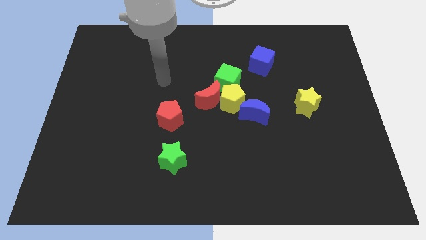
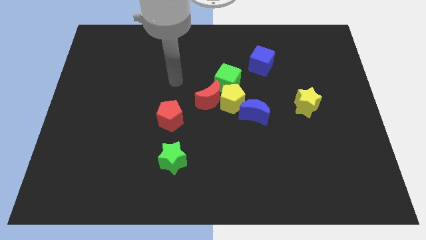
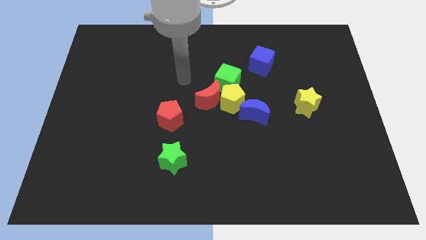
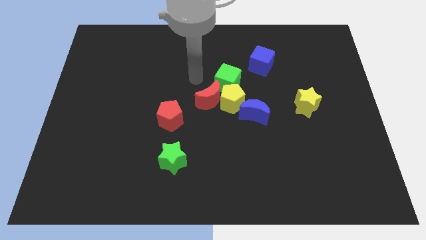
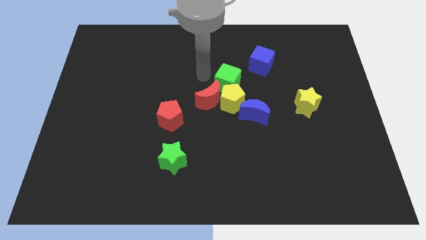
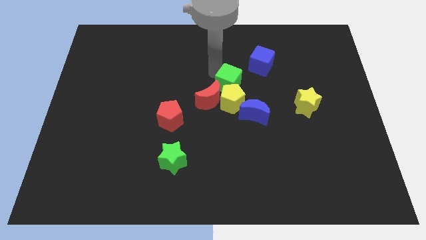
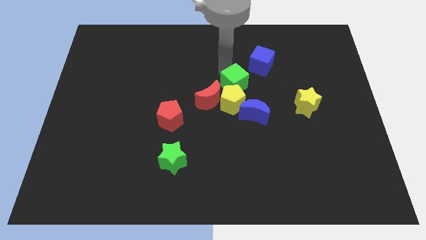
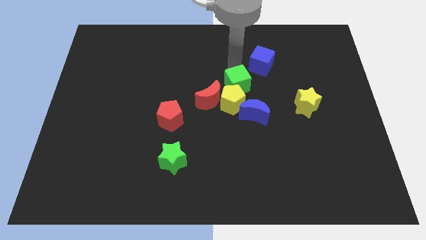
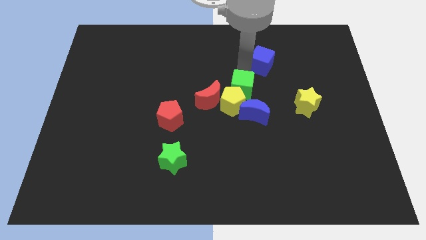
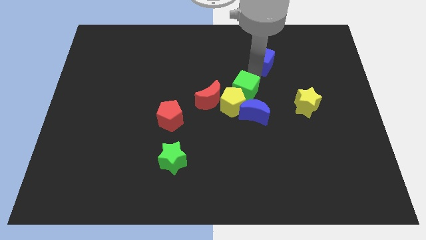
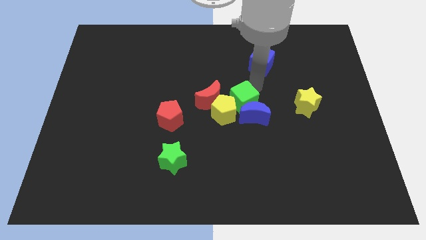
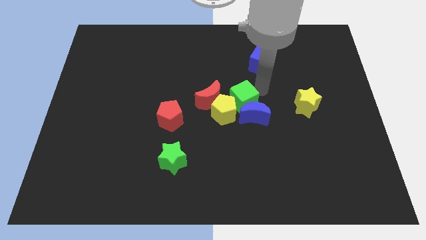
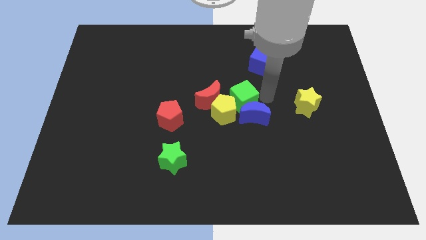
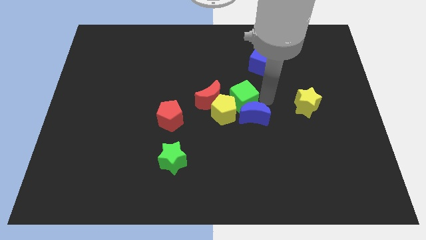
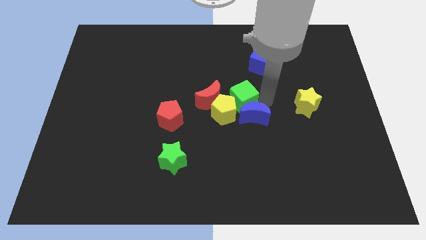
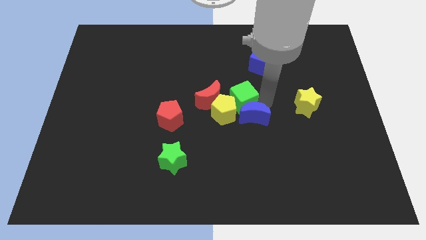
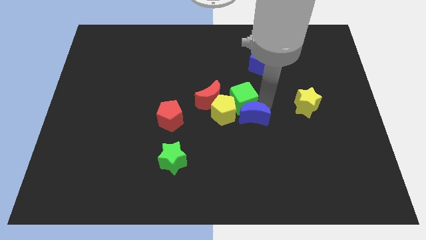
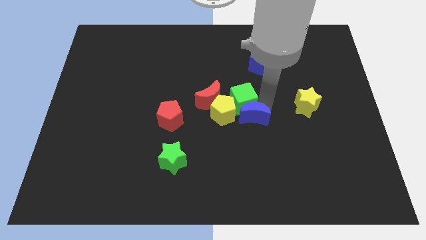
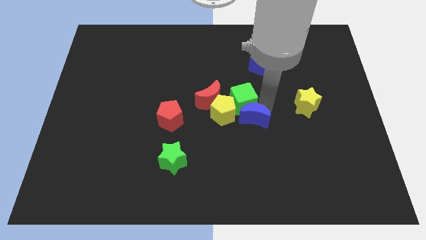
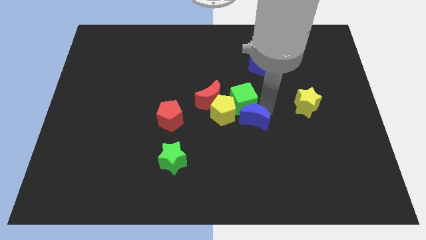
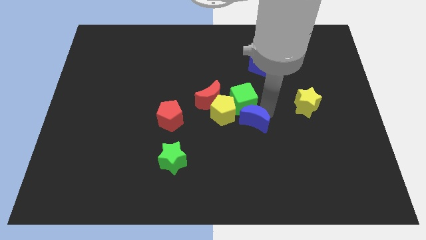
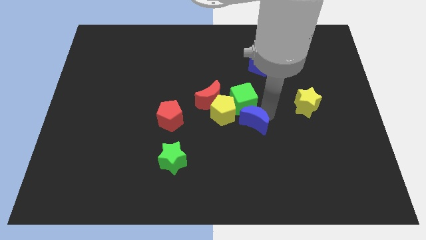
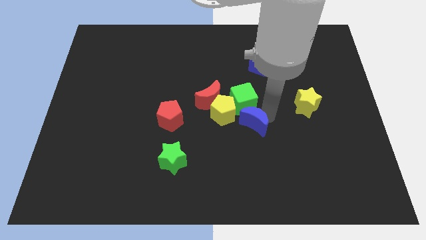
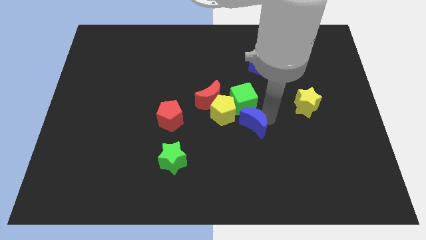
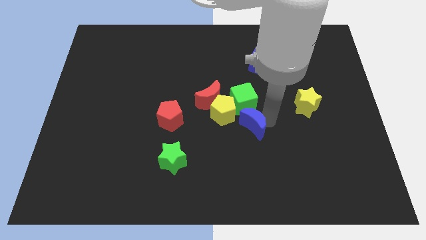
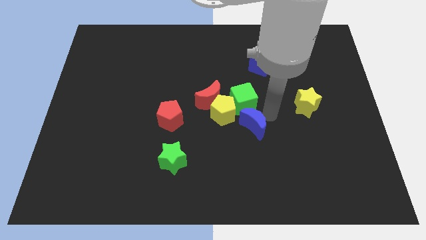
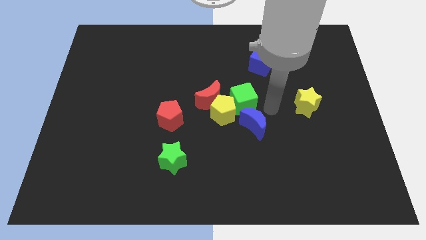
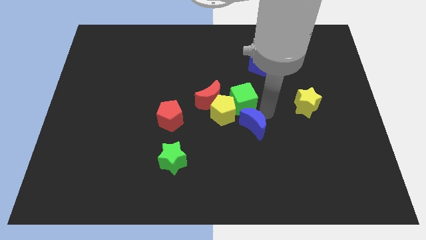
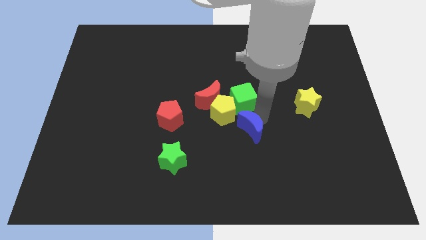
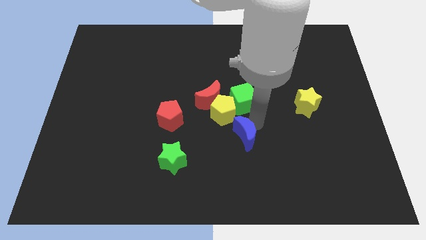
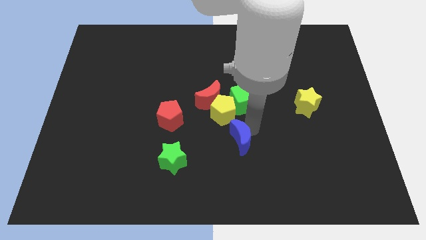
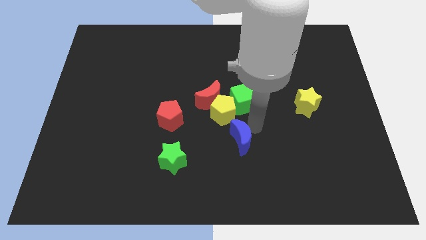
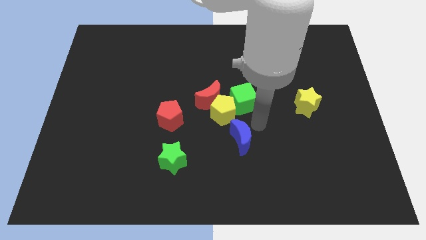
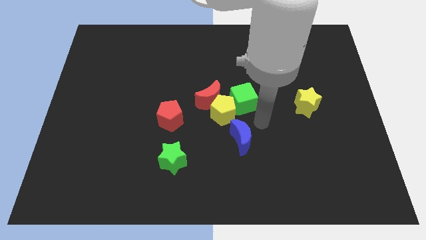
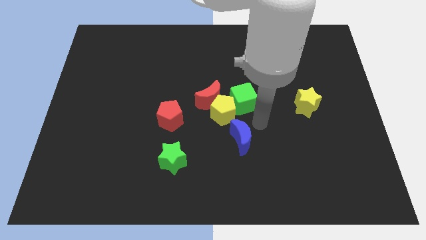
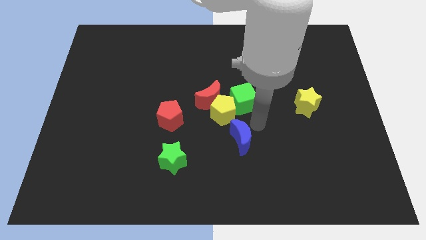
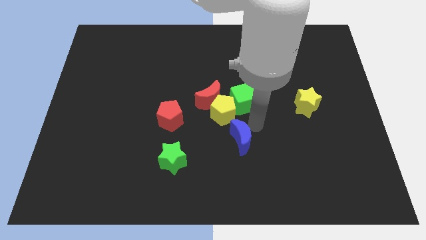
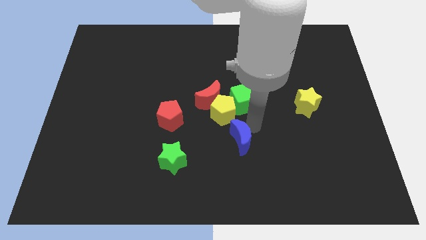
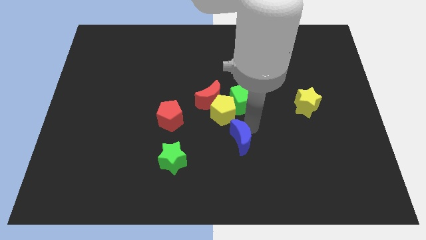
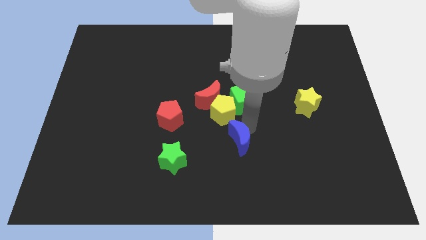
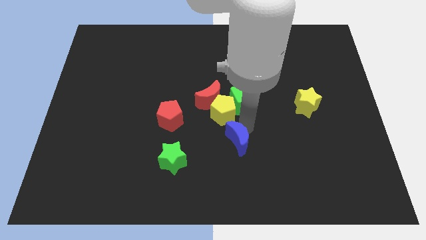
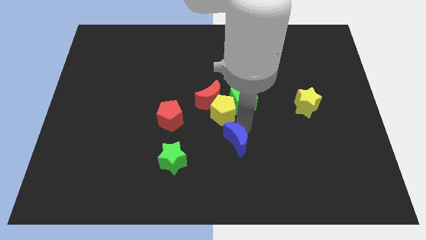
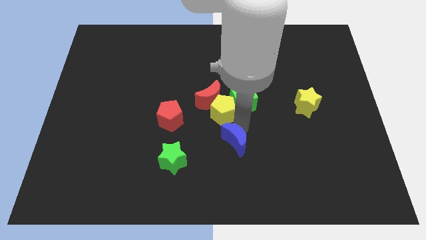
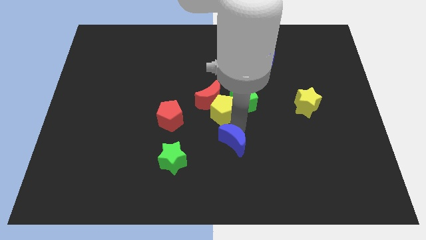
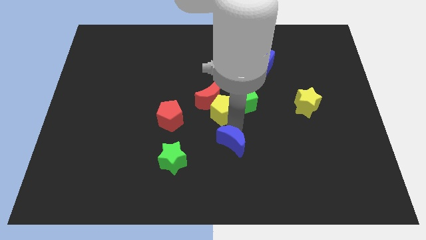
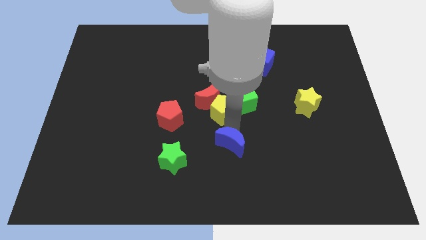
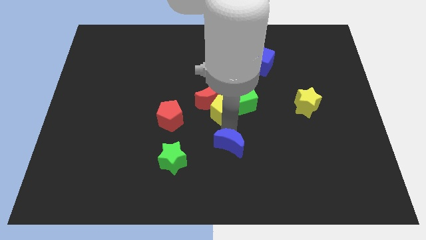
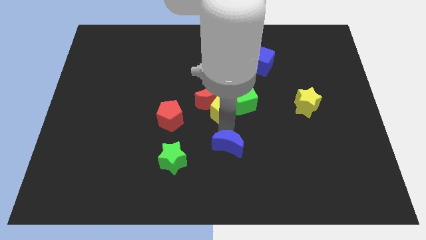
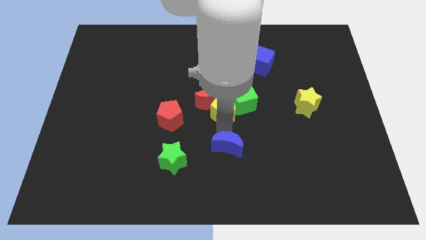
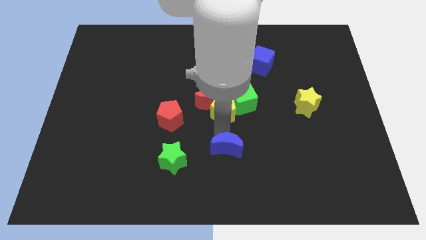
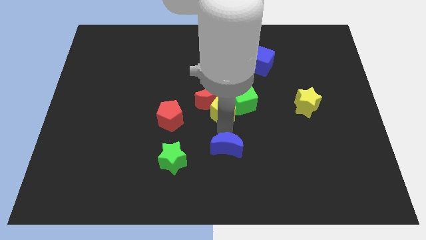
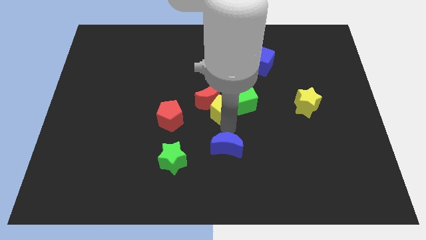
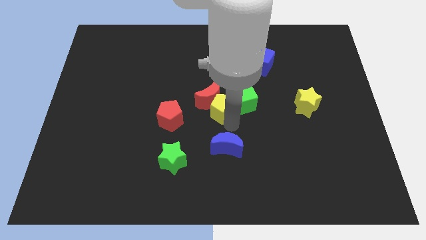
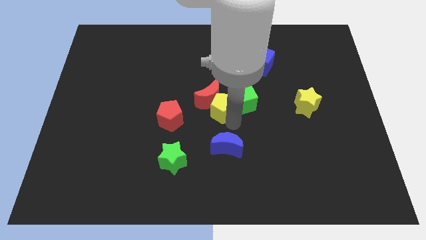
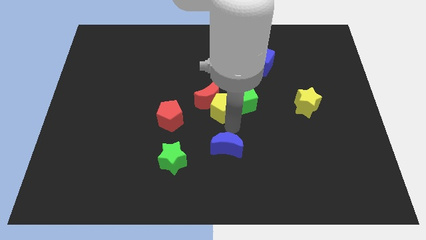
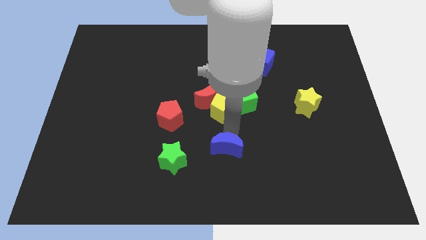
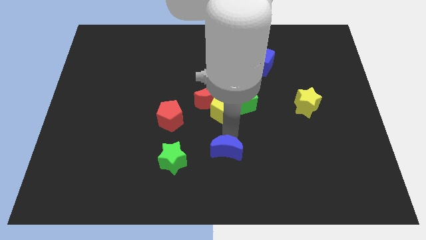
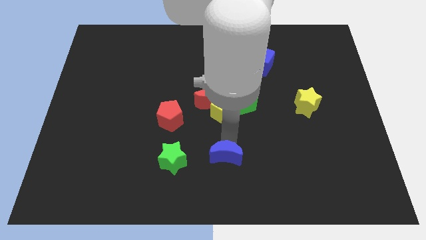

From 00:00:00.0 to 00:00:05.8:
put the blue moon to the bottom

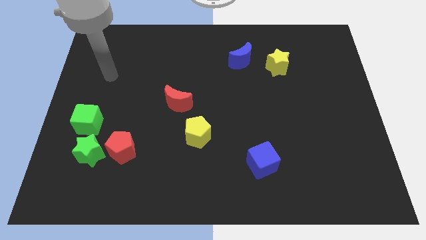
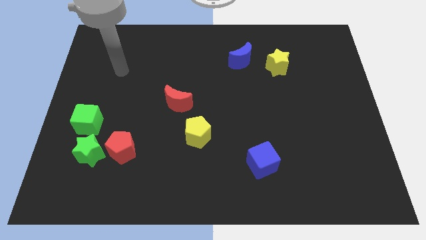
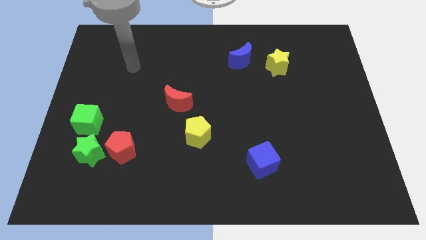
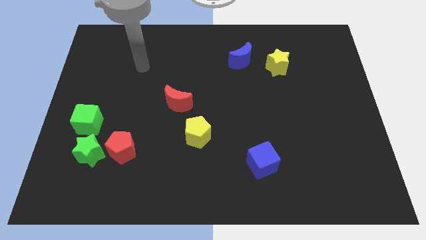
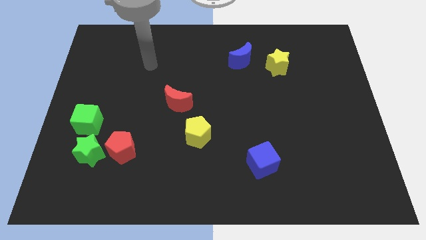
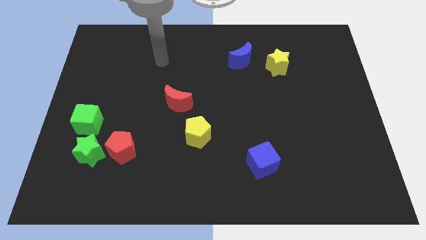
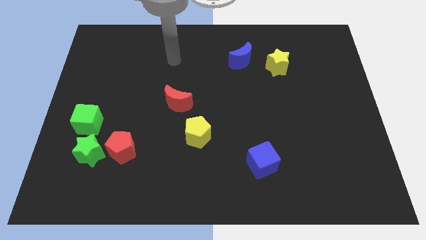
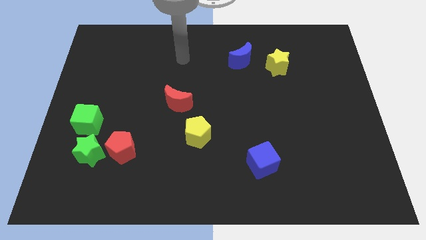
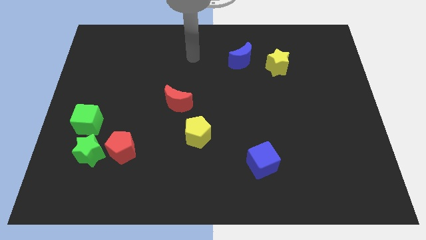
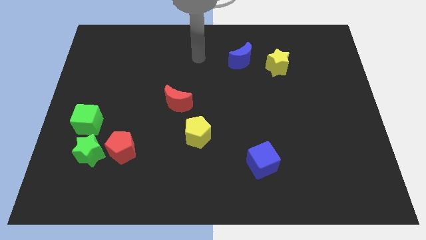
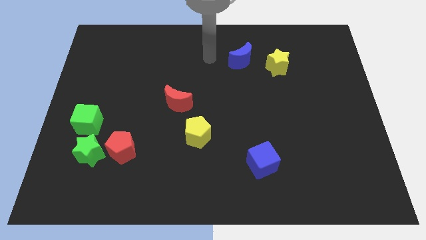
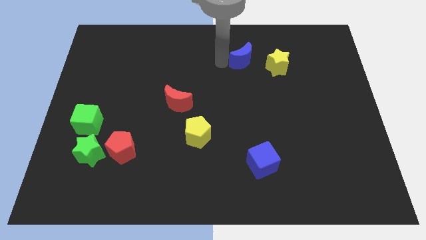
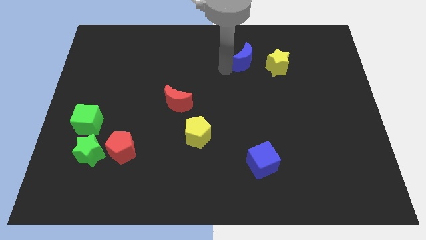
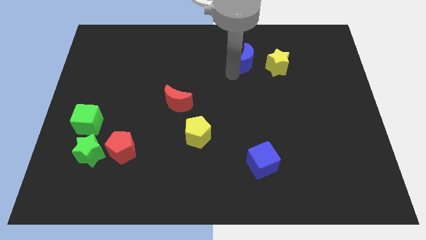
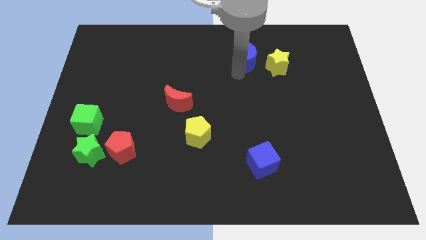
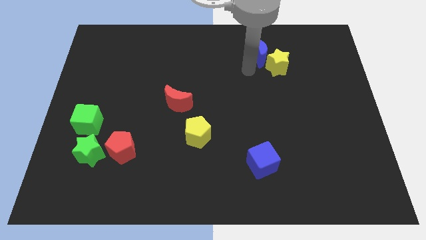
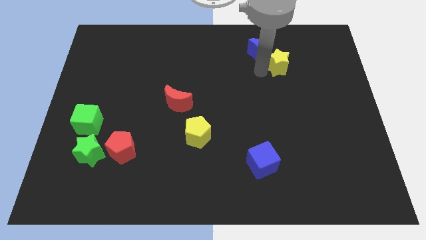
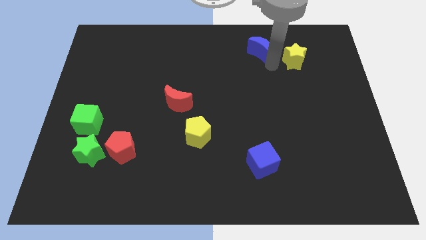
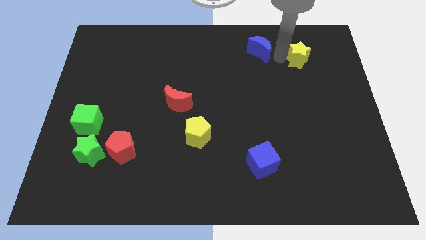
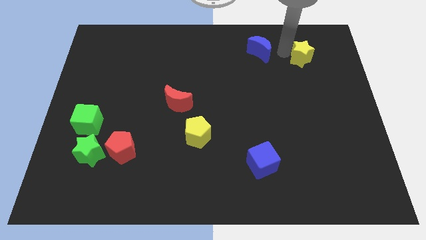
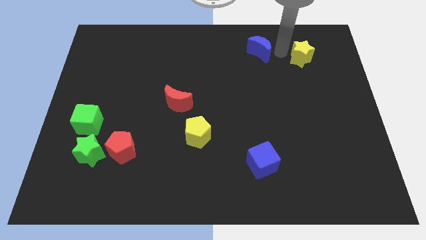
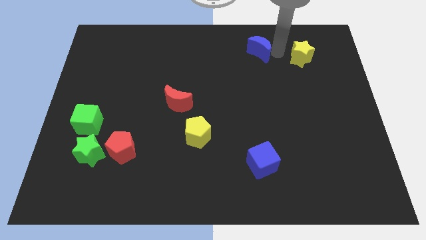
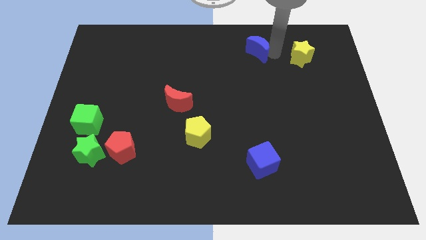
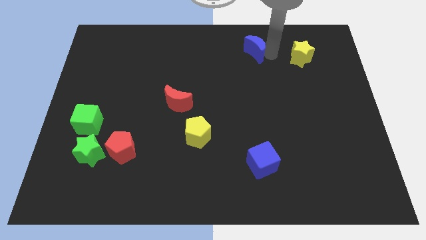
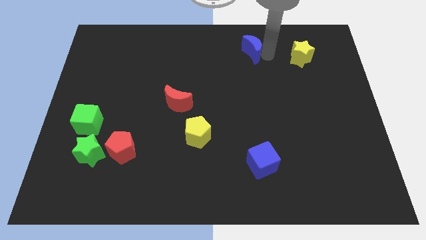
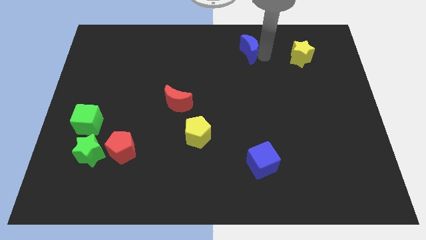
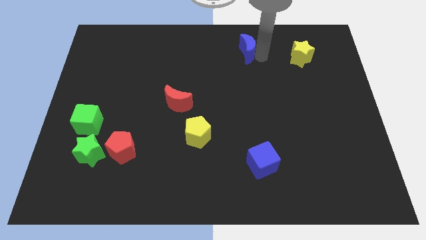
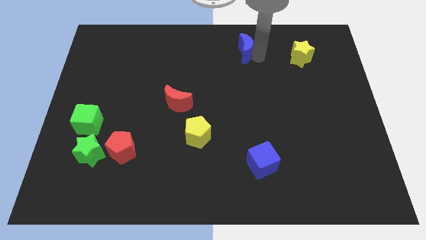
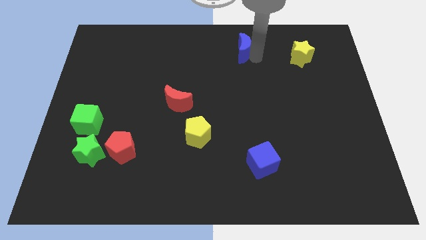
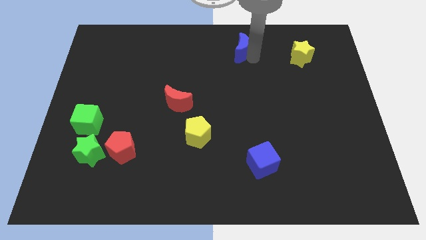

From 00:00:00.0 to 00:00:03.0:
put the blue moon to the top side
